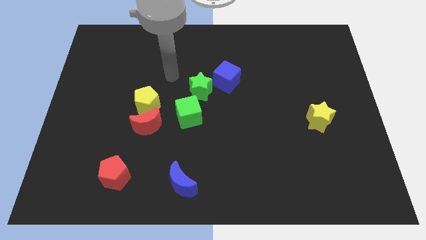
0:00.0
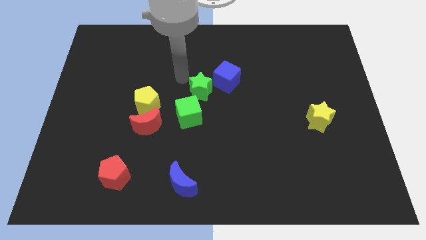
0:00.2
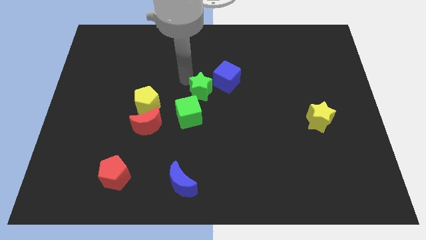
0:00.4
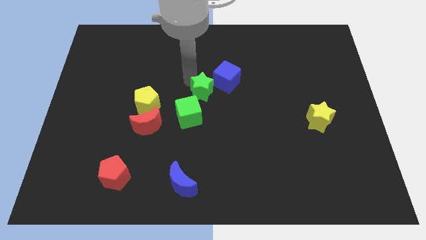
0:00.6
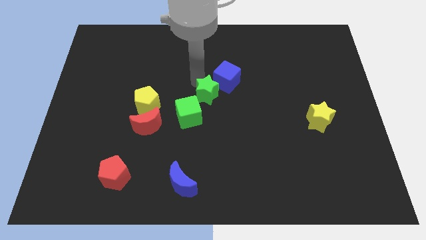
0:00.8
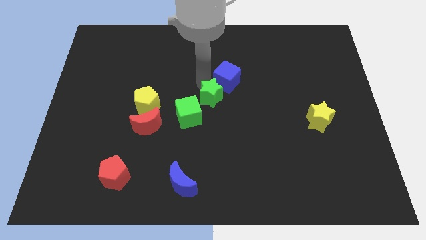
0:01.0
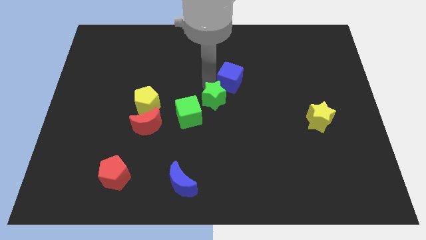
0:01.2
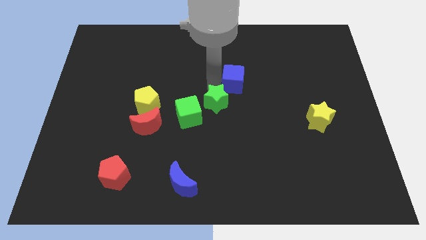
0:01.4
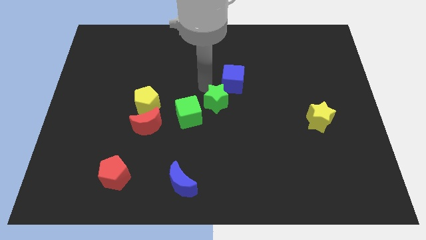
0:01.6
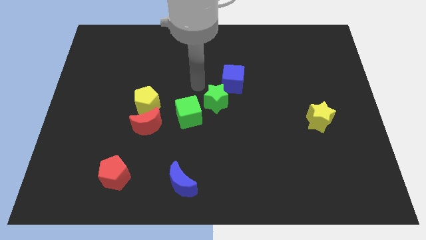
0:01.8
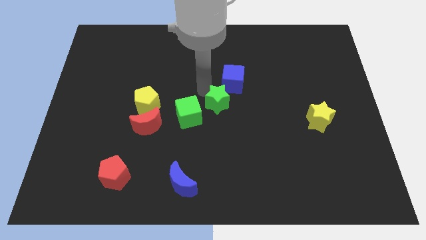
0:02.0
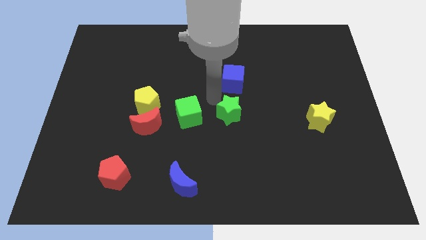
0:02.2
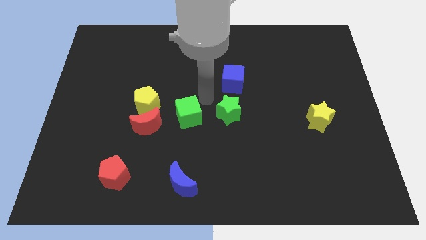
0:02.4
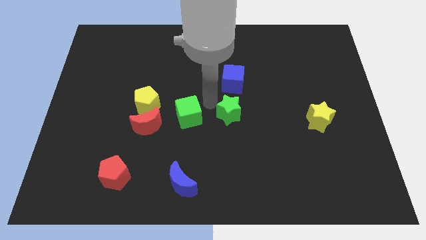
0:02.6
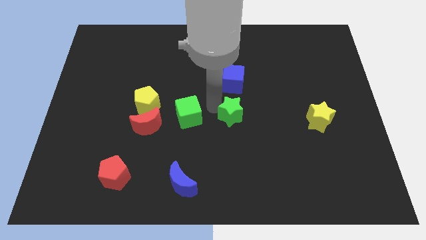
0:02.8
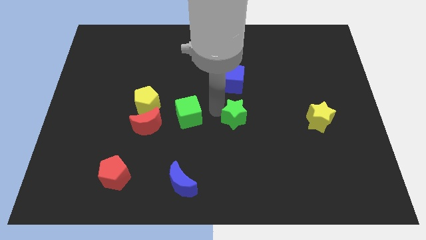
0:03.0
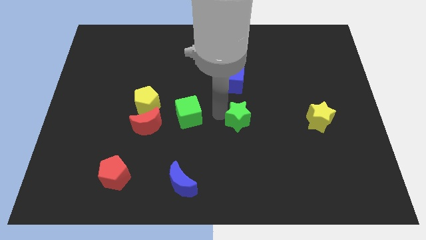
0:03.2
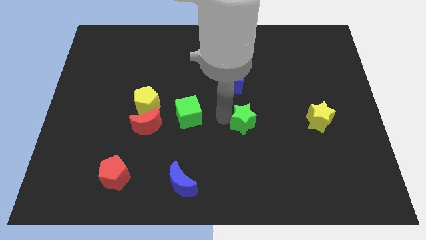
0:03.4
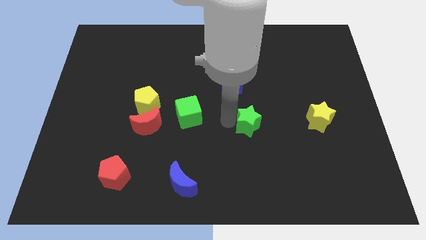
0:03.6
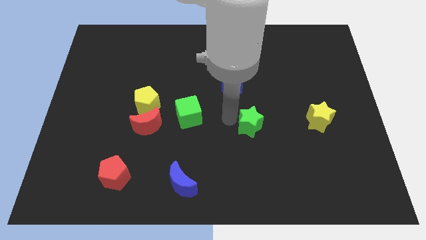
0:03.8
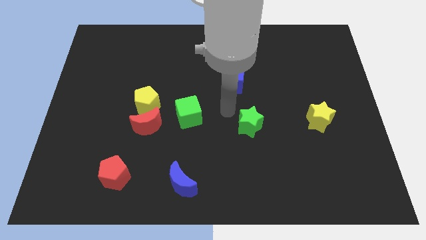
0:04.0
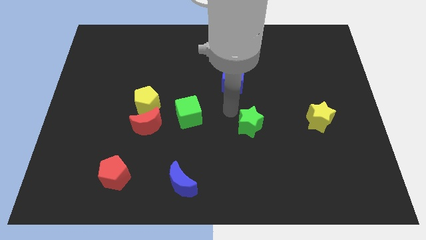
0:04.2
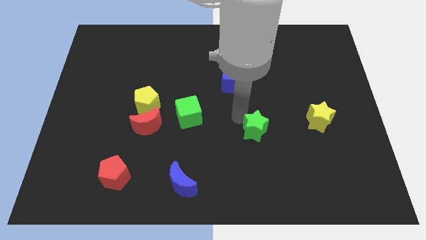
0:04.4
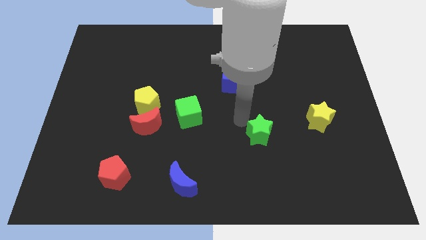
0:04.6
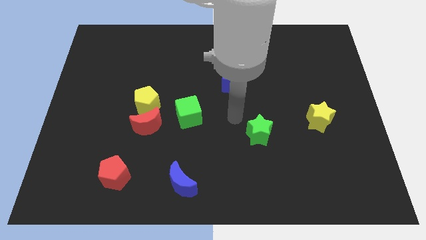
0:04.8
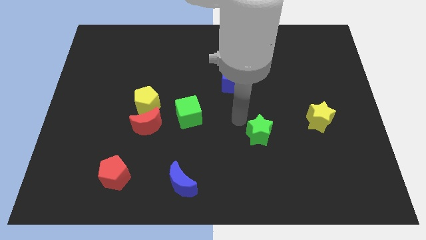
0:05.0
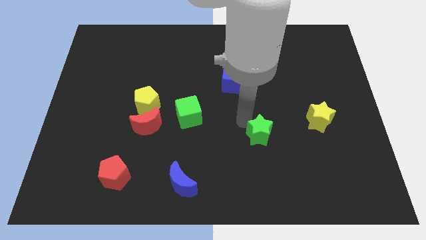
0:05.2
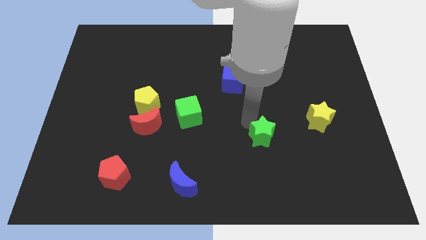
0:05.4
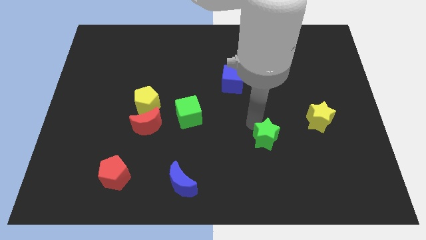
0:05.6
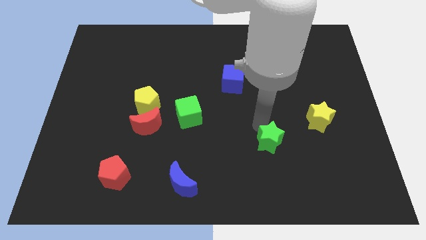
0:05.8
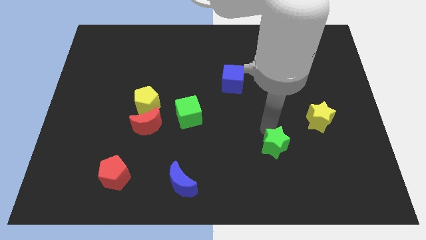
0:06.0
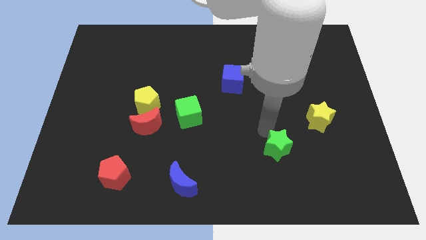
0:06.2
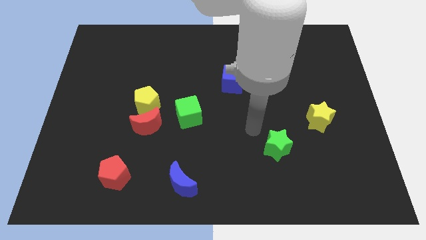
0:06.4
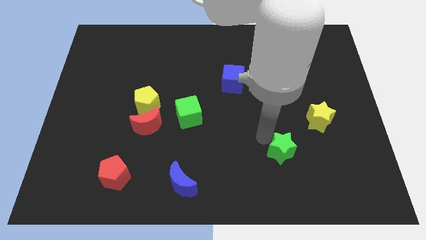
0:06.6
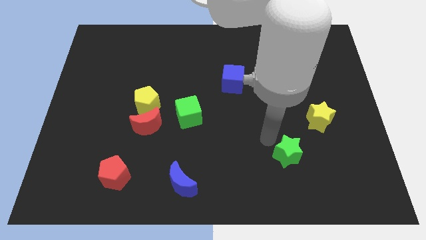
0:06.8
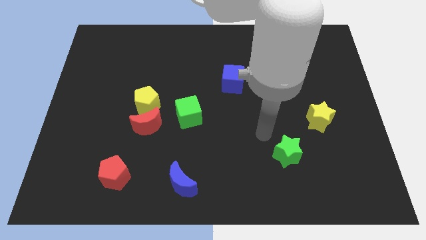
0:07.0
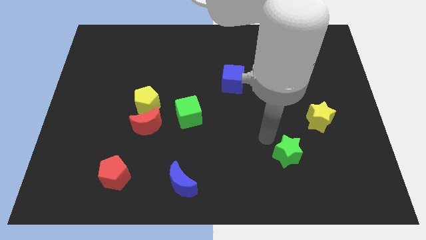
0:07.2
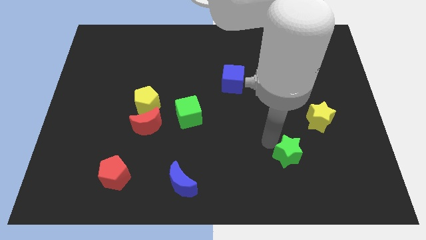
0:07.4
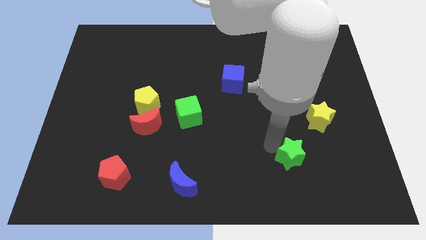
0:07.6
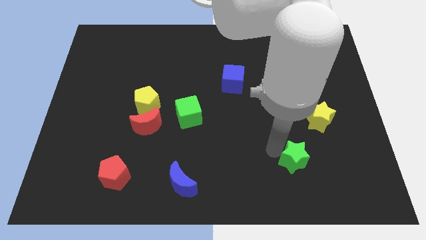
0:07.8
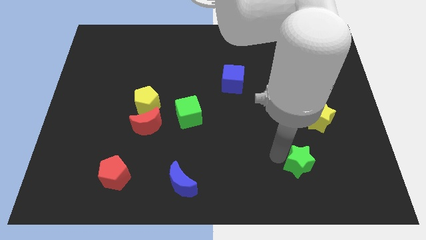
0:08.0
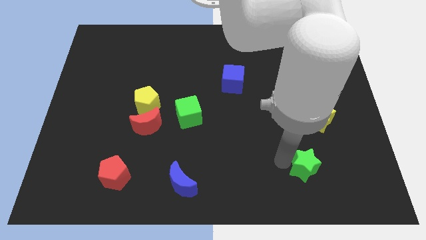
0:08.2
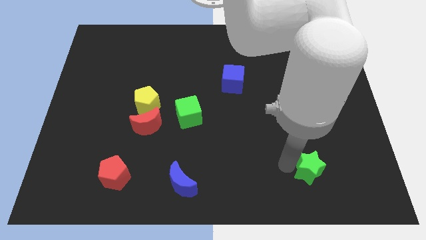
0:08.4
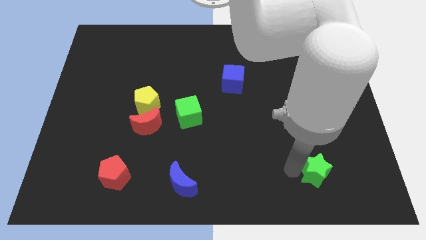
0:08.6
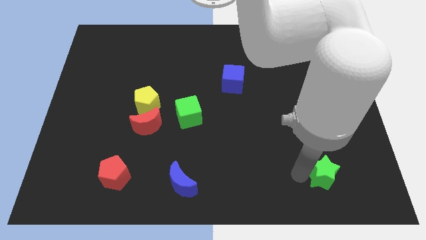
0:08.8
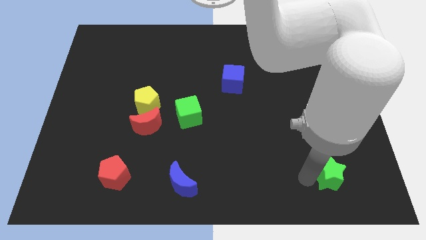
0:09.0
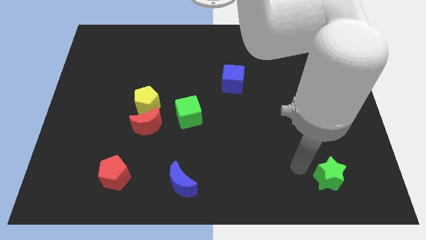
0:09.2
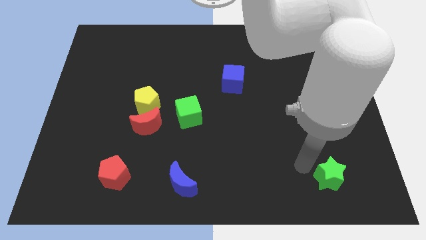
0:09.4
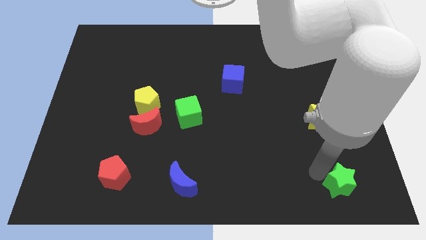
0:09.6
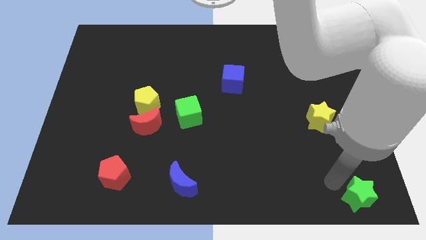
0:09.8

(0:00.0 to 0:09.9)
slide the green star to the lower right corner
